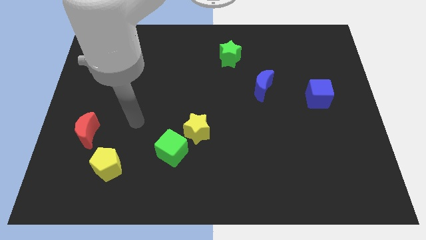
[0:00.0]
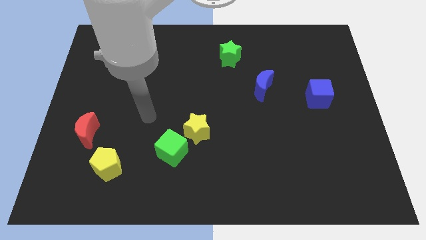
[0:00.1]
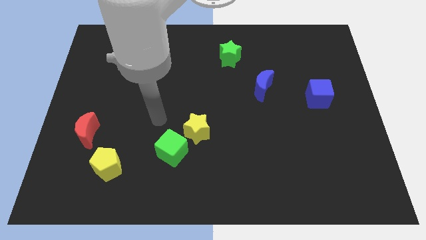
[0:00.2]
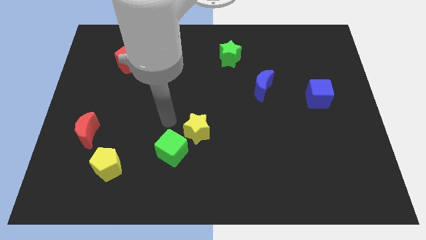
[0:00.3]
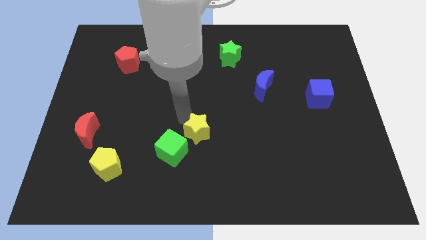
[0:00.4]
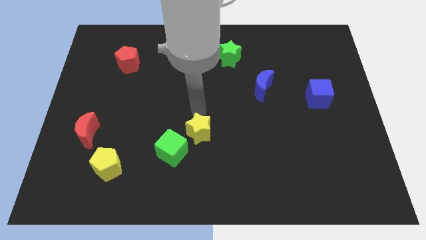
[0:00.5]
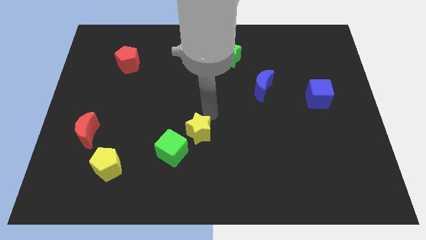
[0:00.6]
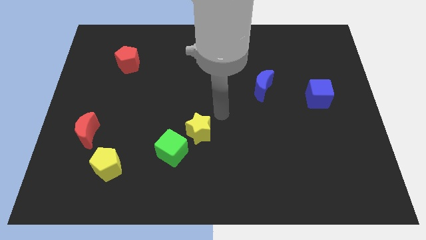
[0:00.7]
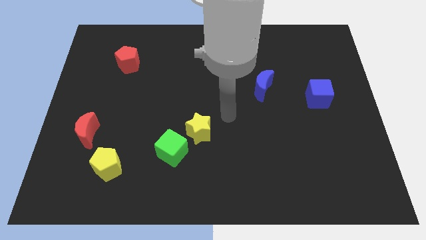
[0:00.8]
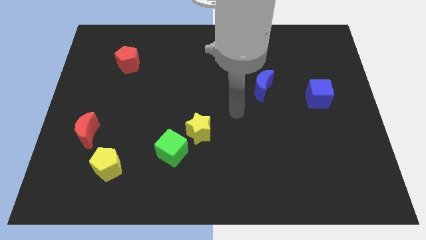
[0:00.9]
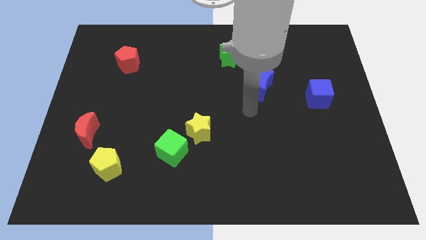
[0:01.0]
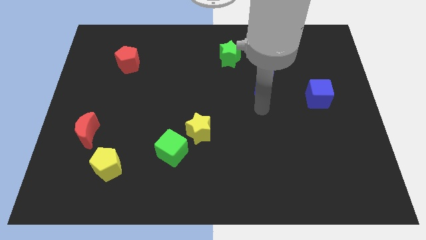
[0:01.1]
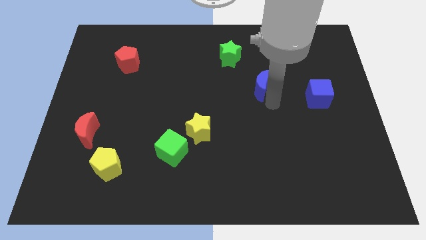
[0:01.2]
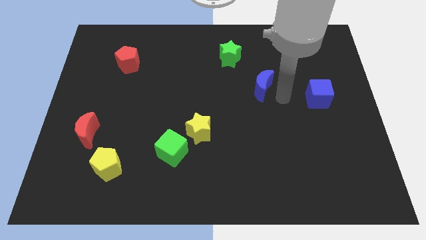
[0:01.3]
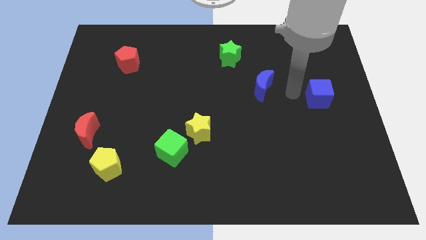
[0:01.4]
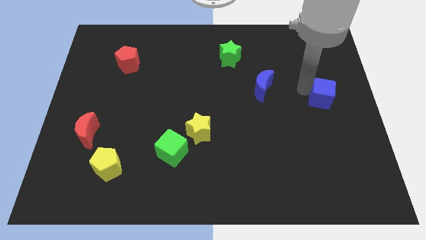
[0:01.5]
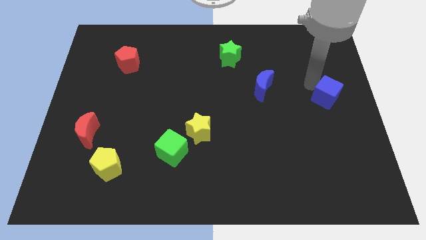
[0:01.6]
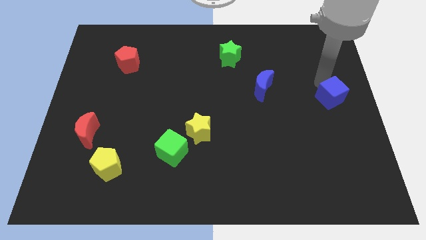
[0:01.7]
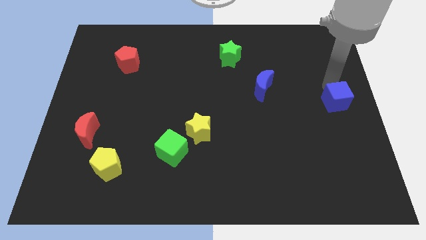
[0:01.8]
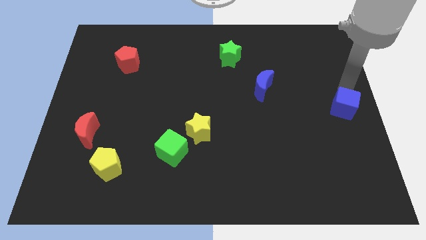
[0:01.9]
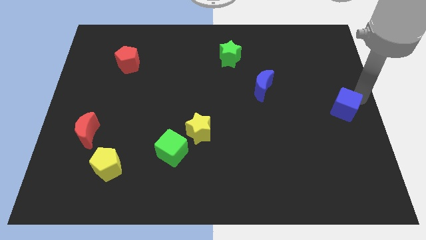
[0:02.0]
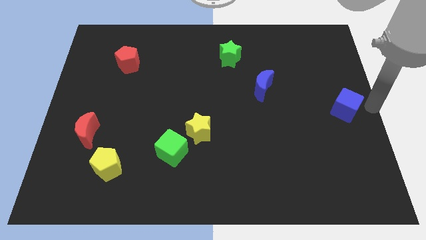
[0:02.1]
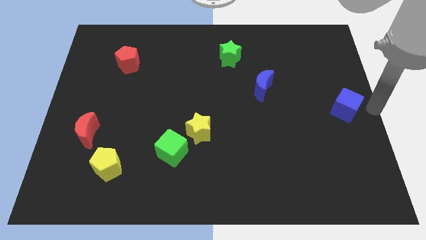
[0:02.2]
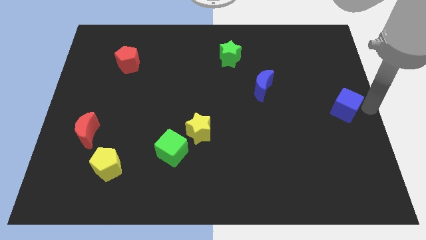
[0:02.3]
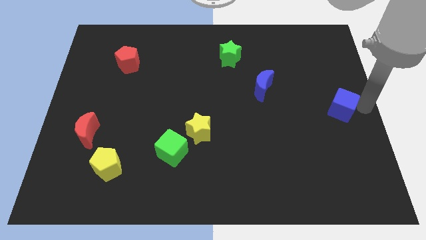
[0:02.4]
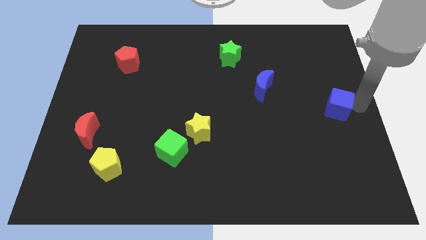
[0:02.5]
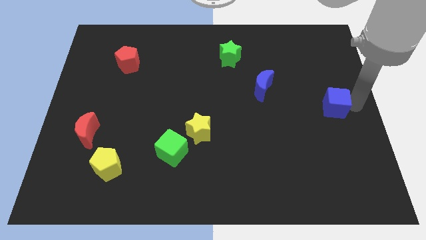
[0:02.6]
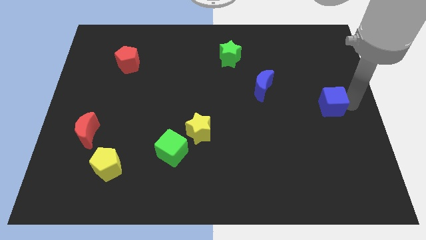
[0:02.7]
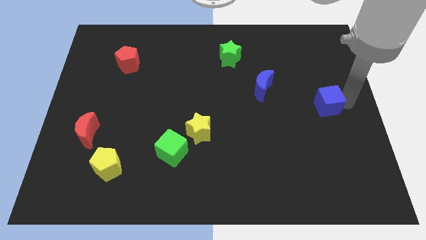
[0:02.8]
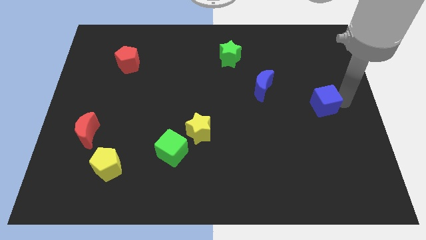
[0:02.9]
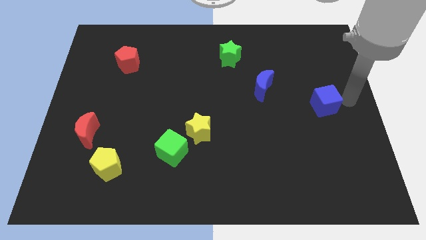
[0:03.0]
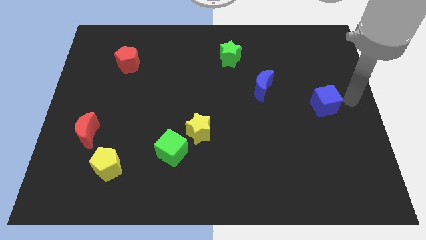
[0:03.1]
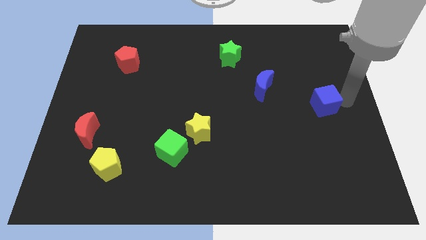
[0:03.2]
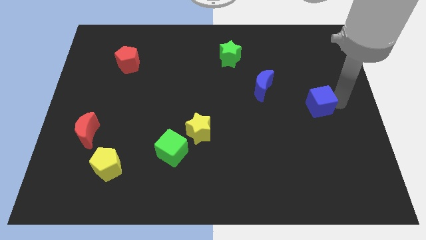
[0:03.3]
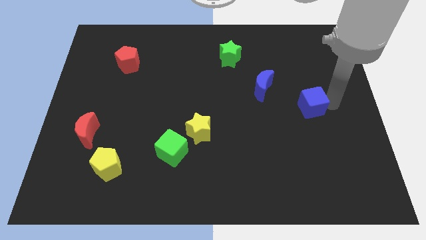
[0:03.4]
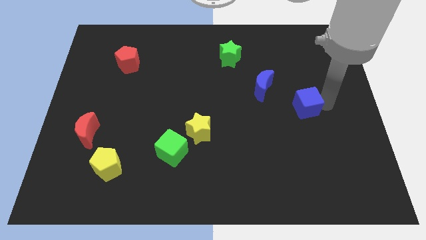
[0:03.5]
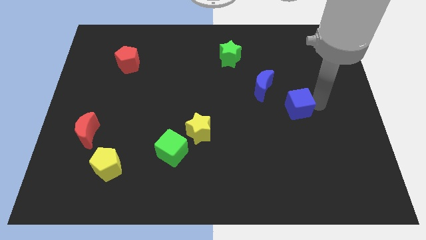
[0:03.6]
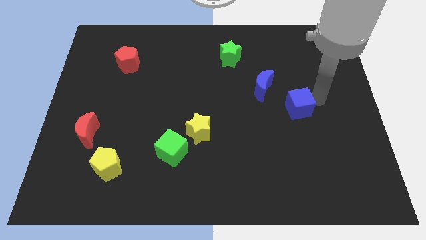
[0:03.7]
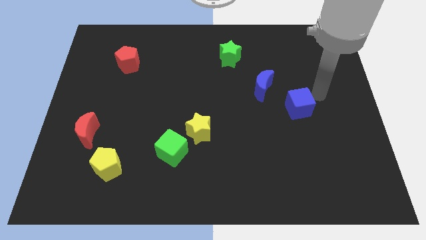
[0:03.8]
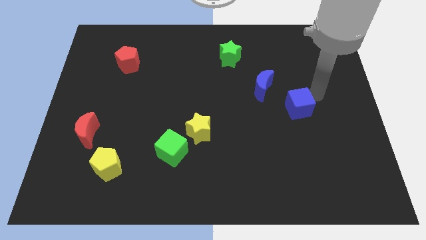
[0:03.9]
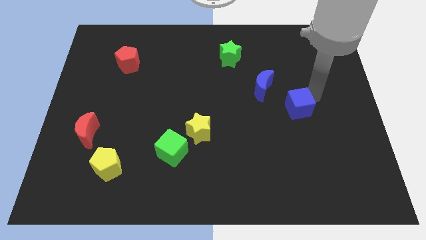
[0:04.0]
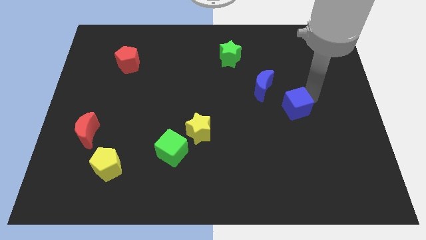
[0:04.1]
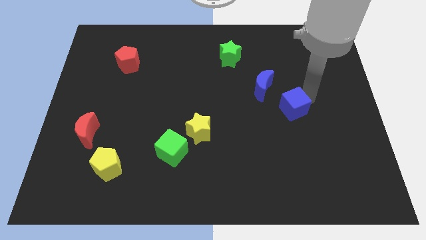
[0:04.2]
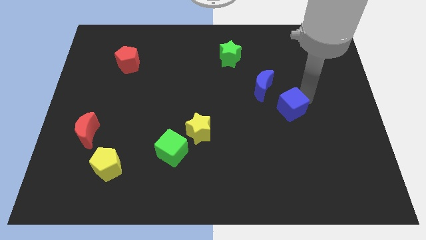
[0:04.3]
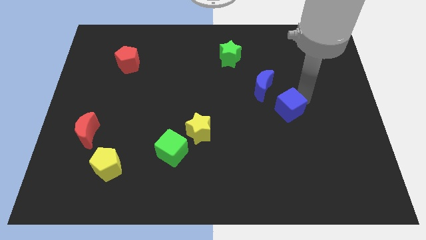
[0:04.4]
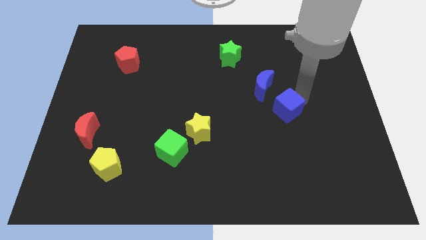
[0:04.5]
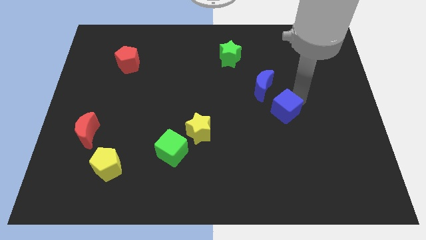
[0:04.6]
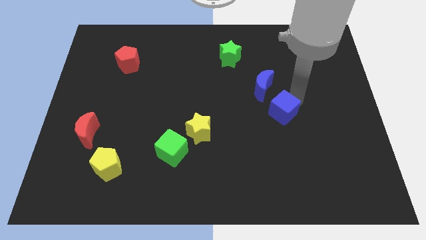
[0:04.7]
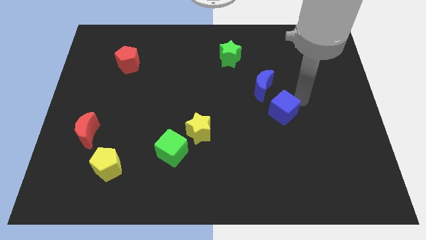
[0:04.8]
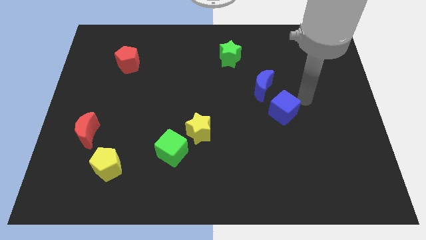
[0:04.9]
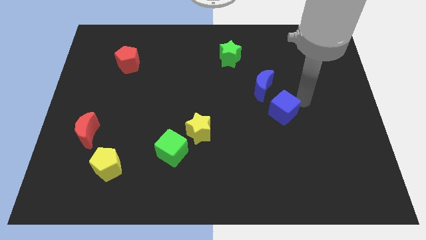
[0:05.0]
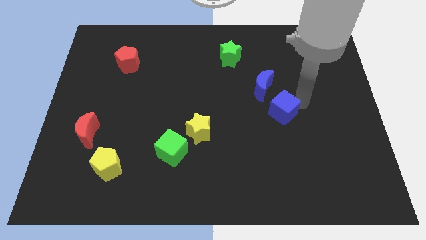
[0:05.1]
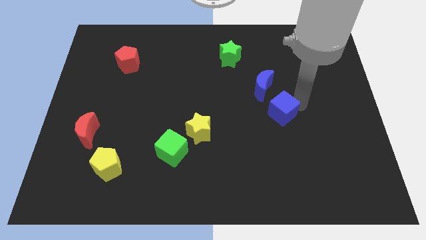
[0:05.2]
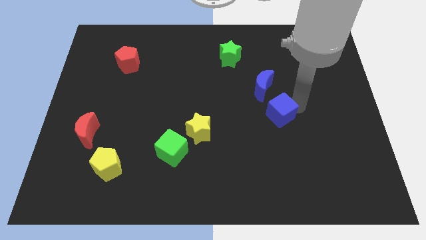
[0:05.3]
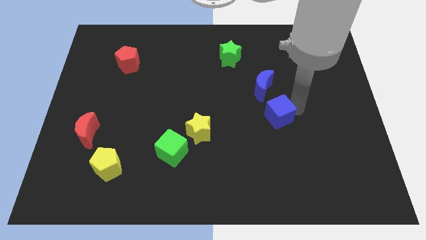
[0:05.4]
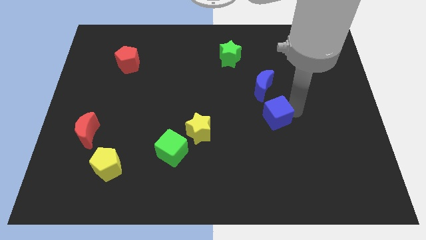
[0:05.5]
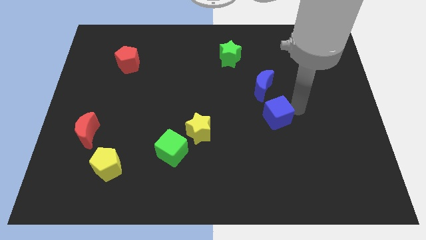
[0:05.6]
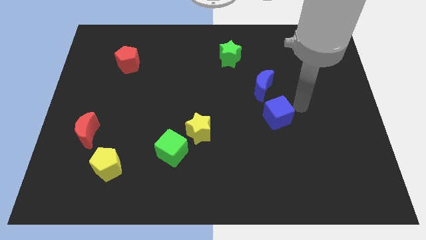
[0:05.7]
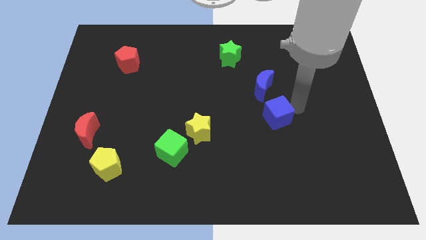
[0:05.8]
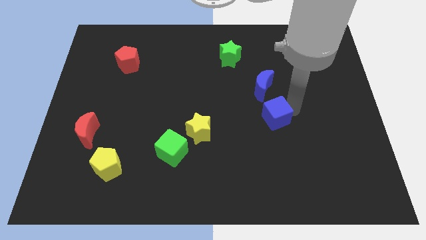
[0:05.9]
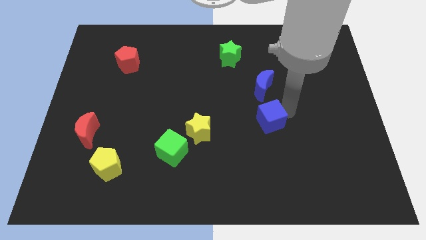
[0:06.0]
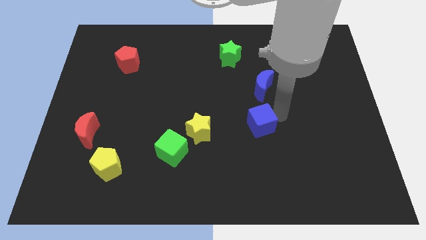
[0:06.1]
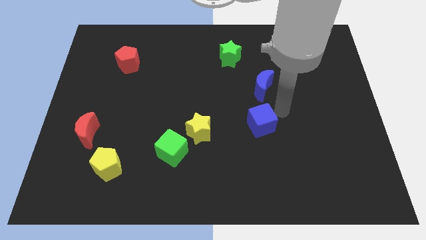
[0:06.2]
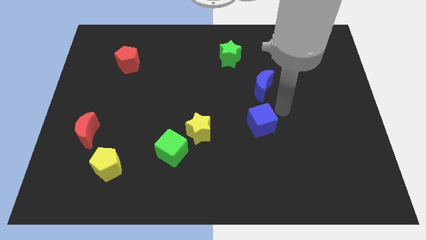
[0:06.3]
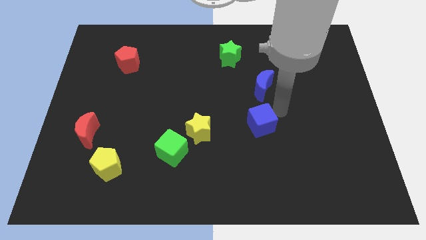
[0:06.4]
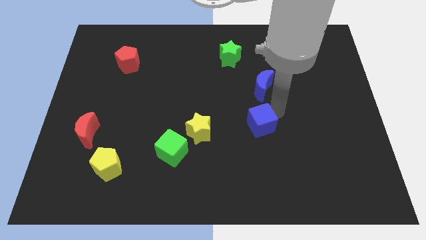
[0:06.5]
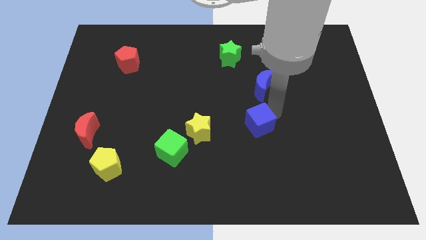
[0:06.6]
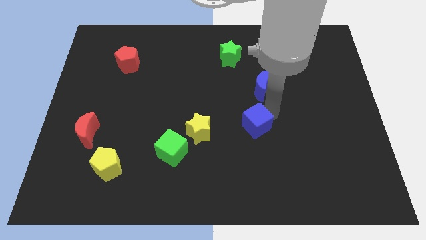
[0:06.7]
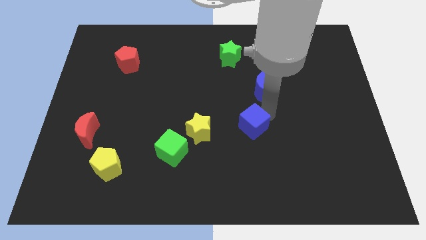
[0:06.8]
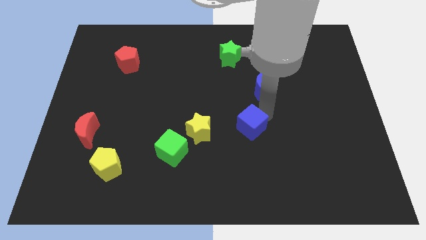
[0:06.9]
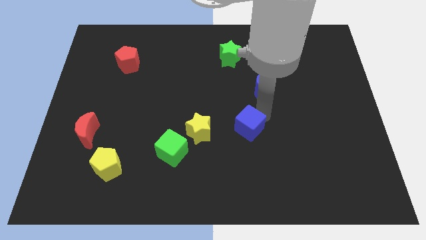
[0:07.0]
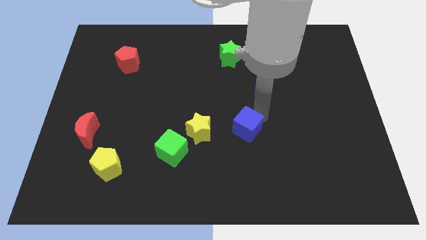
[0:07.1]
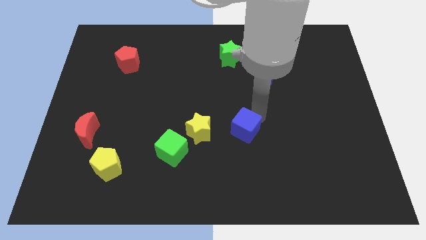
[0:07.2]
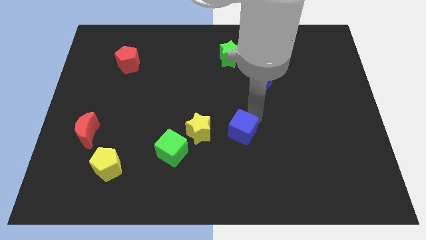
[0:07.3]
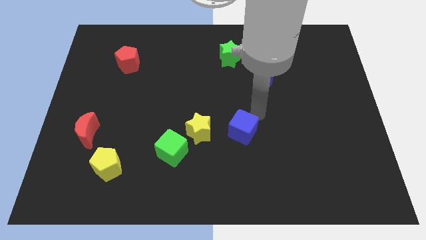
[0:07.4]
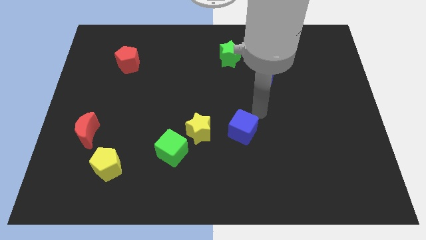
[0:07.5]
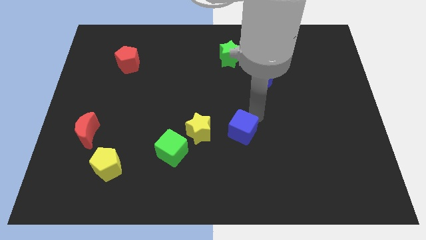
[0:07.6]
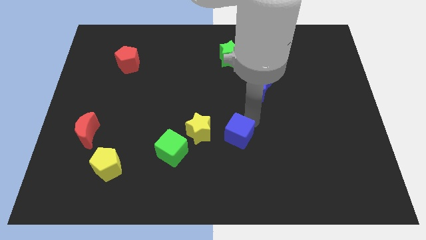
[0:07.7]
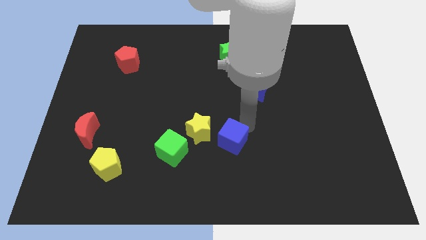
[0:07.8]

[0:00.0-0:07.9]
slide the blue cube to the bottom right side of the yellow star

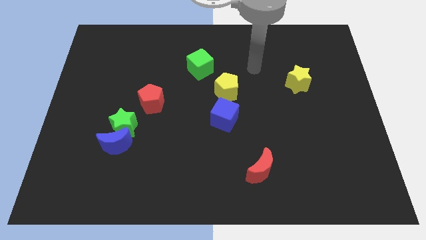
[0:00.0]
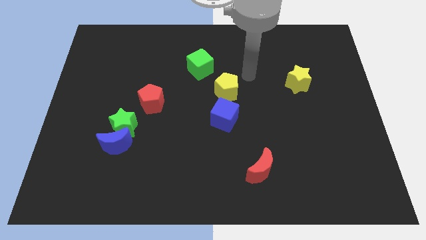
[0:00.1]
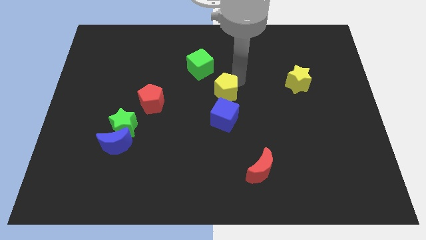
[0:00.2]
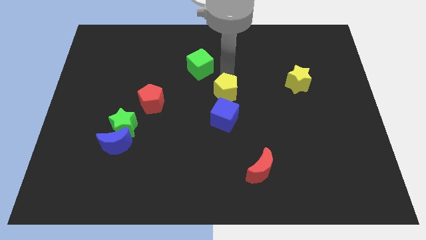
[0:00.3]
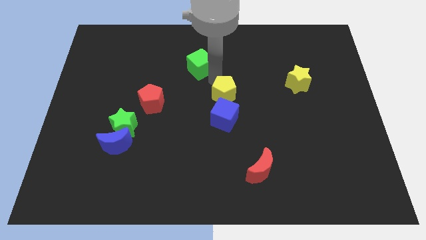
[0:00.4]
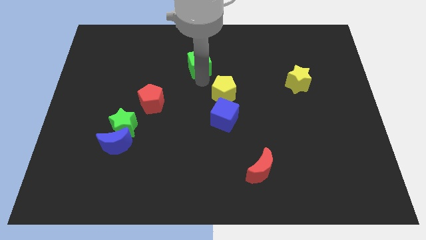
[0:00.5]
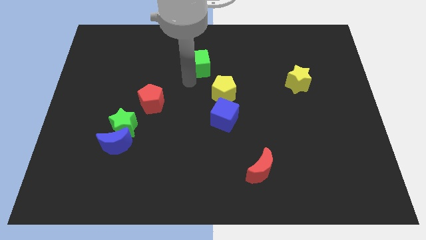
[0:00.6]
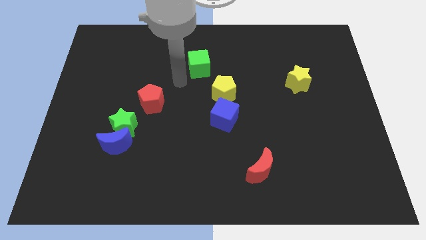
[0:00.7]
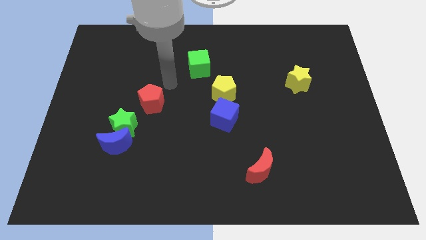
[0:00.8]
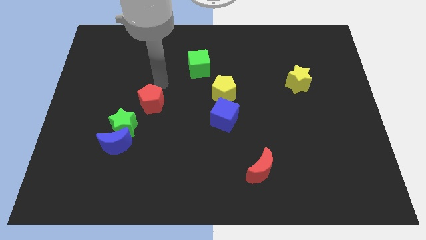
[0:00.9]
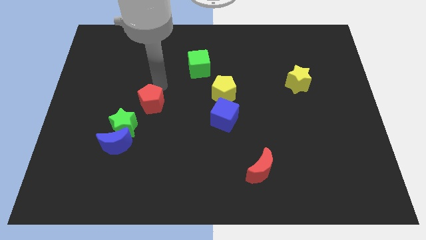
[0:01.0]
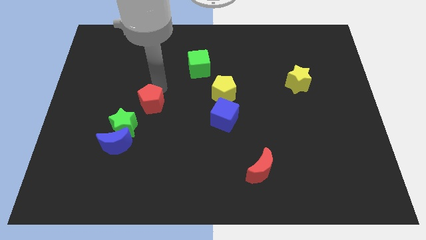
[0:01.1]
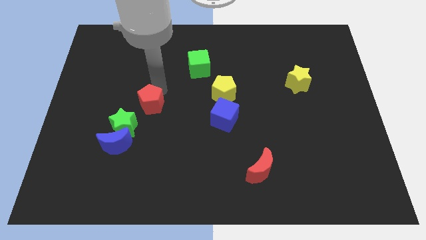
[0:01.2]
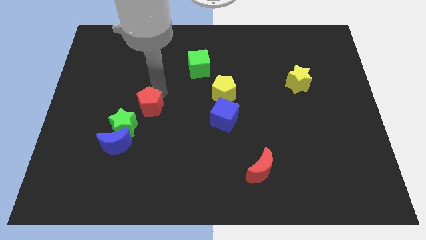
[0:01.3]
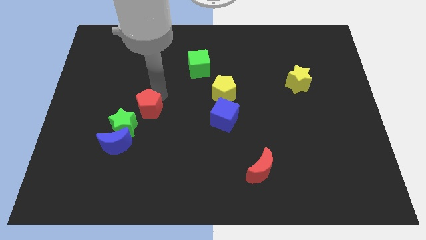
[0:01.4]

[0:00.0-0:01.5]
put the red pentagon diagonally up and to the right of the blue moon
